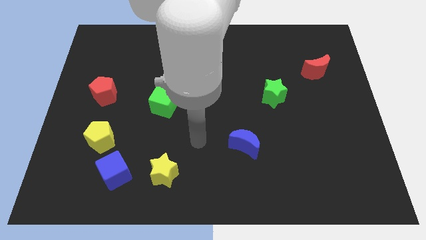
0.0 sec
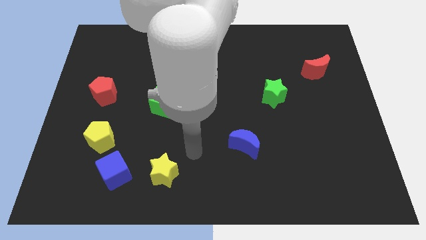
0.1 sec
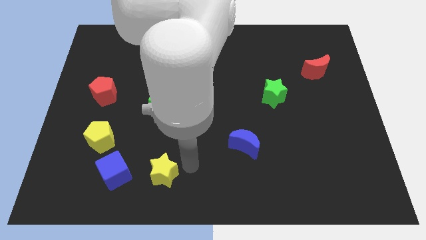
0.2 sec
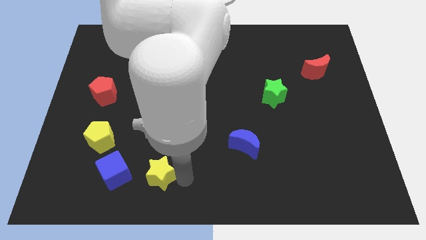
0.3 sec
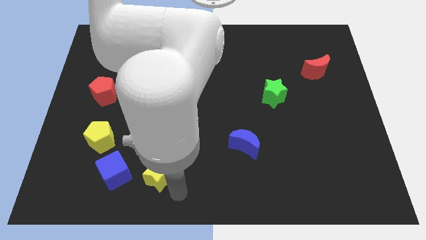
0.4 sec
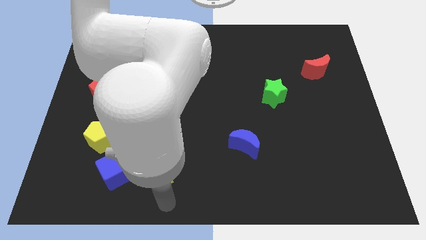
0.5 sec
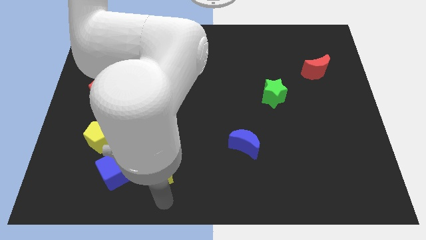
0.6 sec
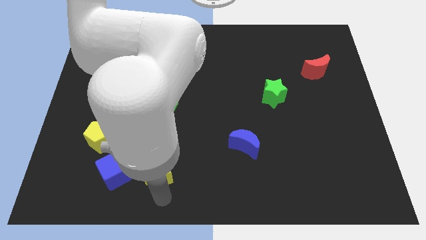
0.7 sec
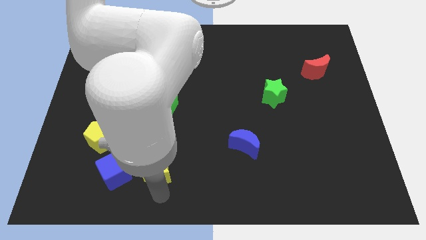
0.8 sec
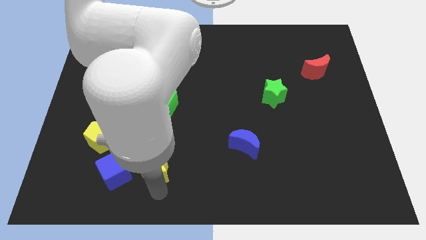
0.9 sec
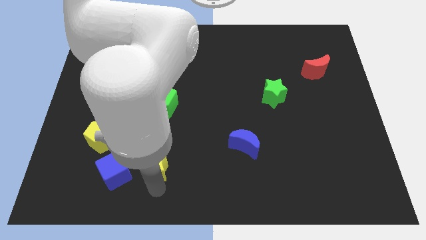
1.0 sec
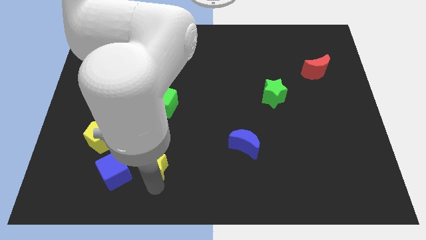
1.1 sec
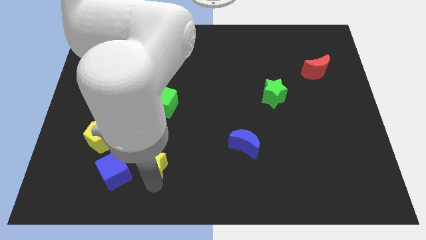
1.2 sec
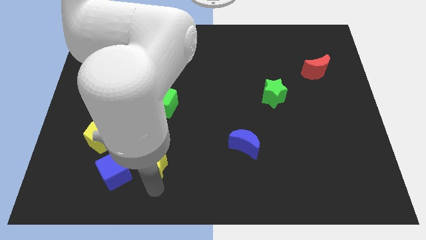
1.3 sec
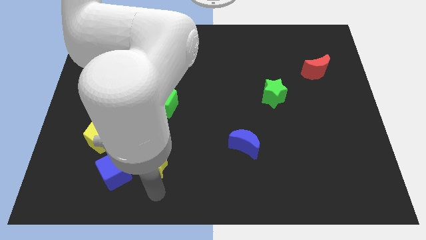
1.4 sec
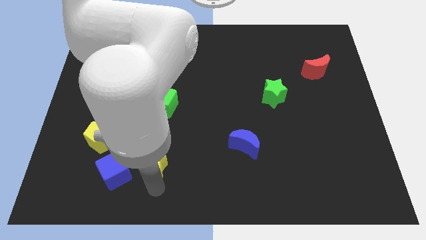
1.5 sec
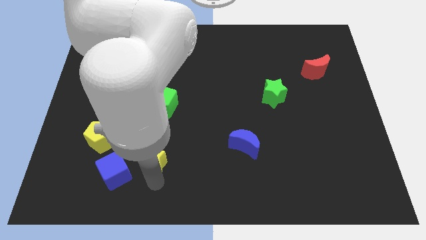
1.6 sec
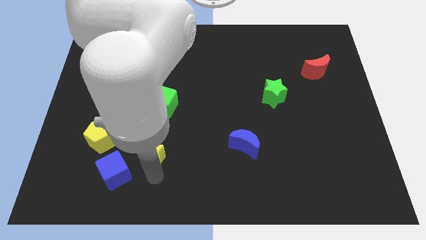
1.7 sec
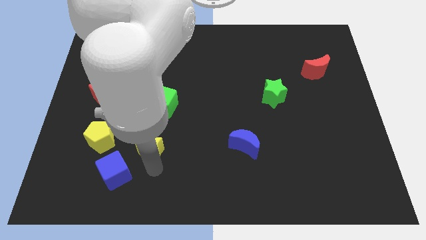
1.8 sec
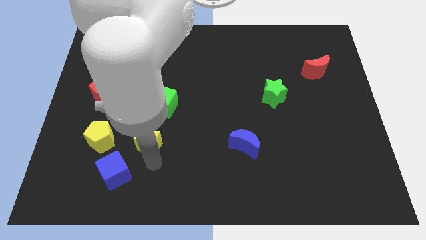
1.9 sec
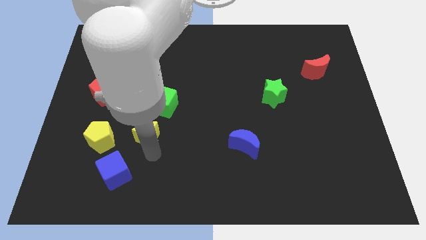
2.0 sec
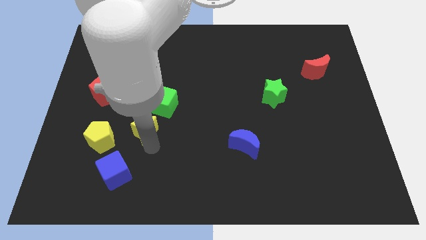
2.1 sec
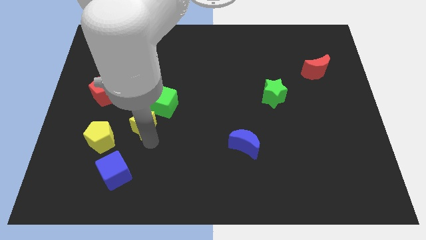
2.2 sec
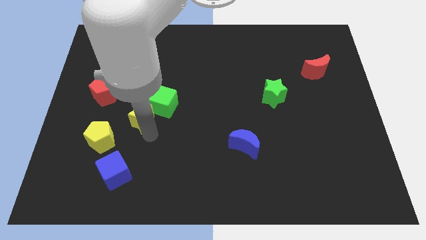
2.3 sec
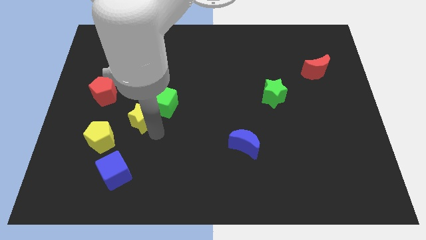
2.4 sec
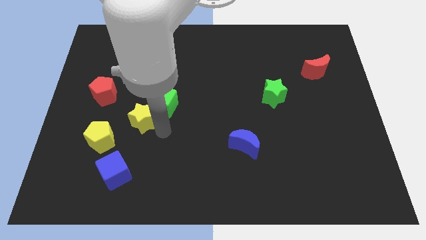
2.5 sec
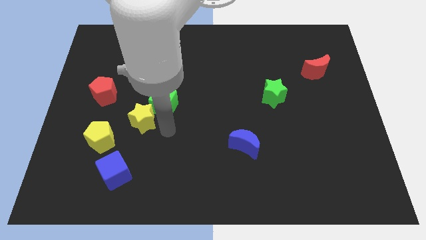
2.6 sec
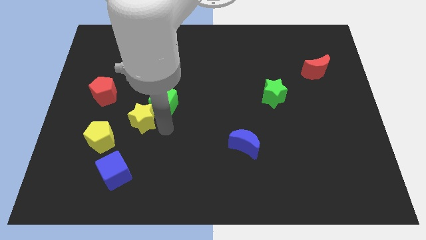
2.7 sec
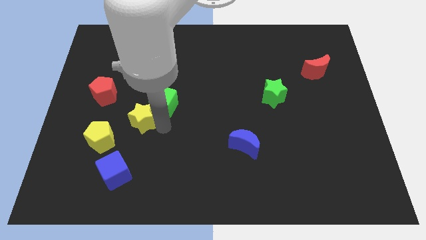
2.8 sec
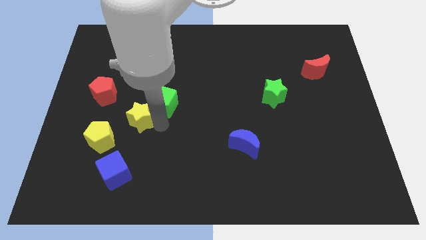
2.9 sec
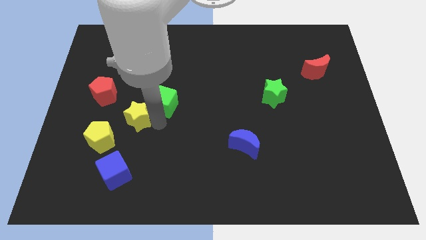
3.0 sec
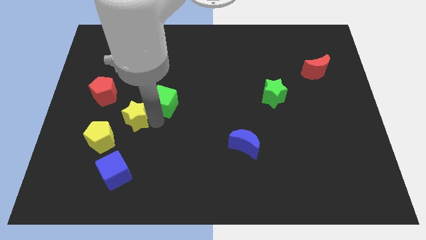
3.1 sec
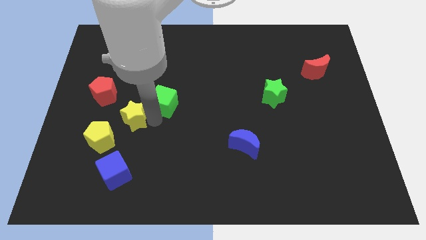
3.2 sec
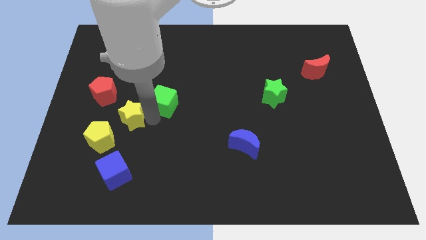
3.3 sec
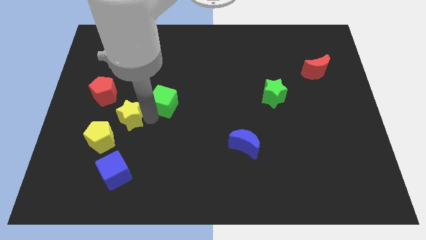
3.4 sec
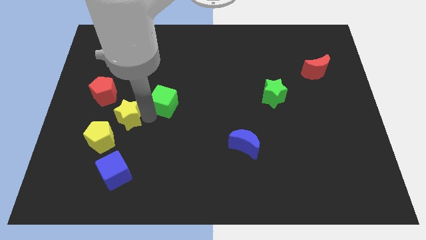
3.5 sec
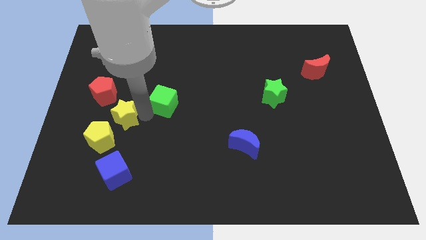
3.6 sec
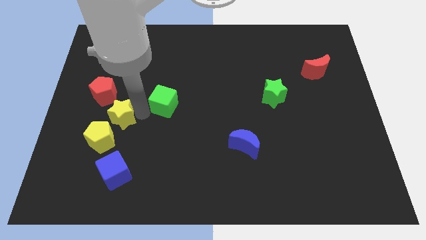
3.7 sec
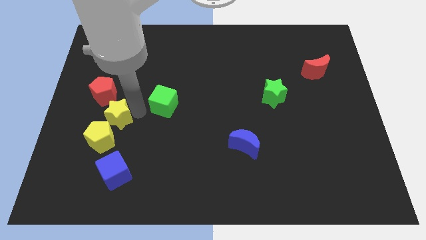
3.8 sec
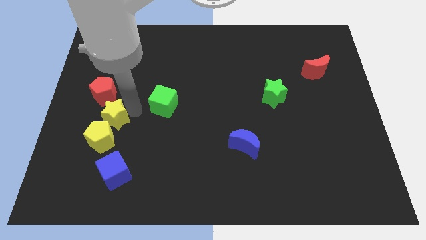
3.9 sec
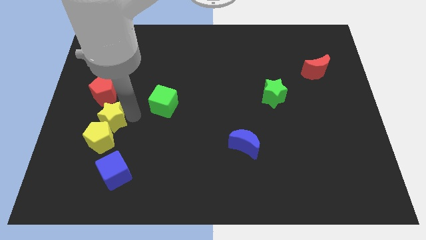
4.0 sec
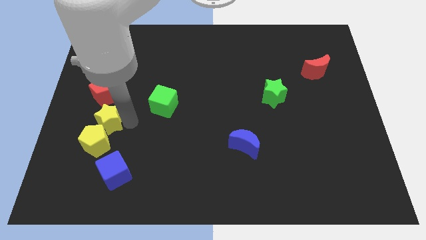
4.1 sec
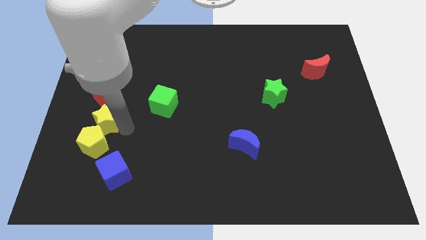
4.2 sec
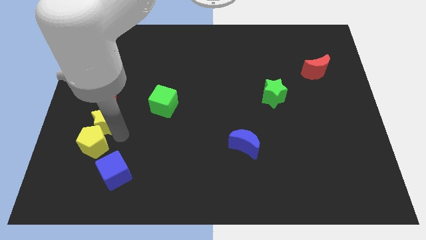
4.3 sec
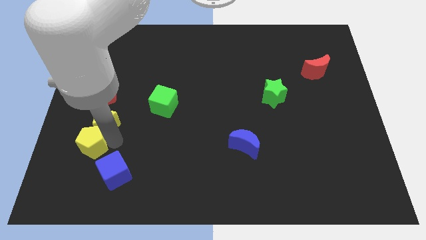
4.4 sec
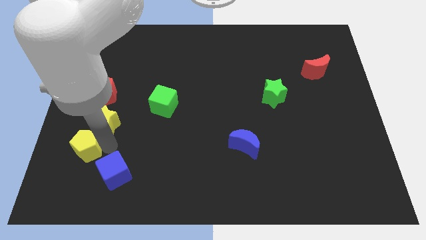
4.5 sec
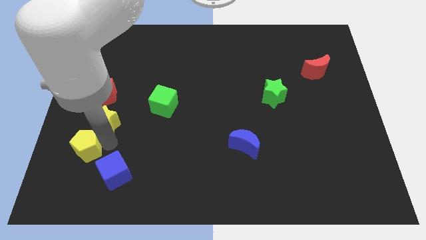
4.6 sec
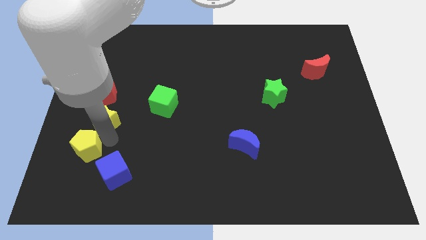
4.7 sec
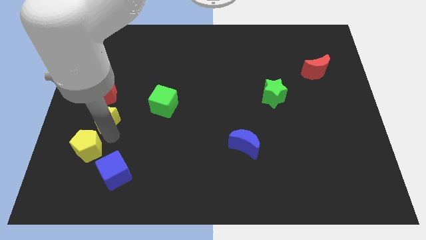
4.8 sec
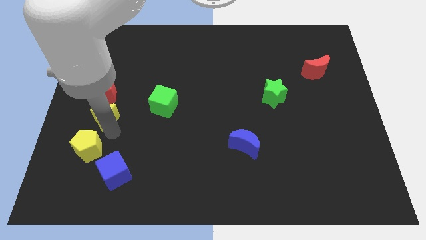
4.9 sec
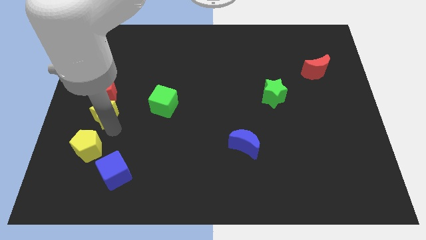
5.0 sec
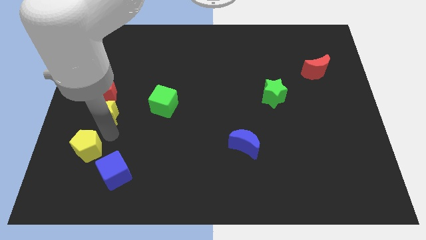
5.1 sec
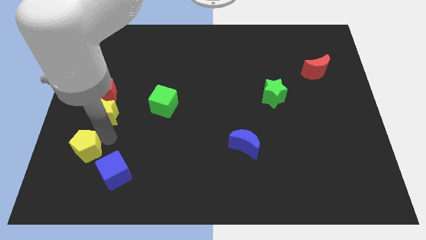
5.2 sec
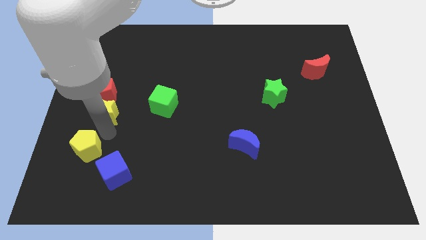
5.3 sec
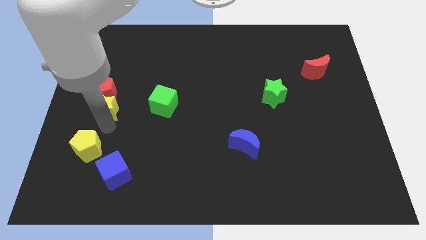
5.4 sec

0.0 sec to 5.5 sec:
move the yellow star towards the red pentagon

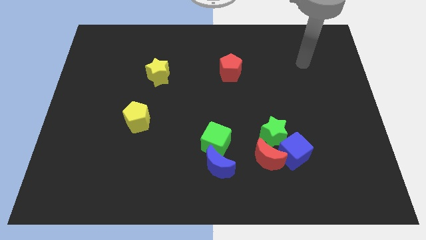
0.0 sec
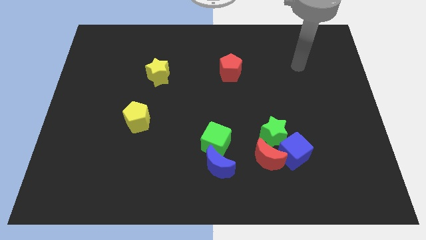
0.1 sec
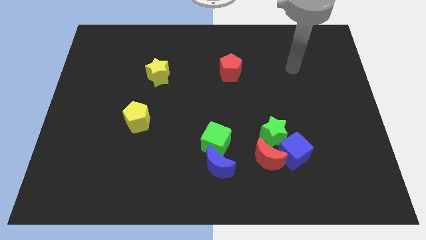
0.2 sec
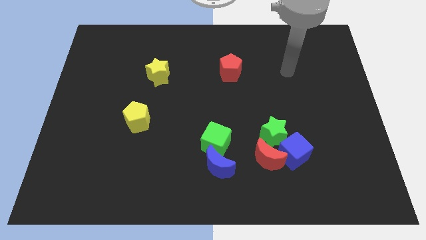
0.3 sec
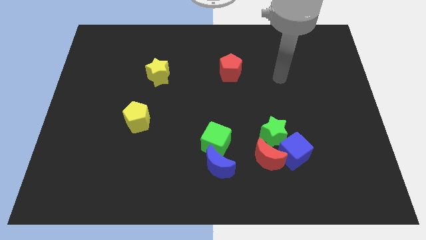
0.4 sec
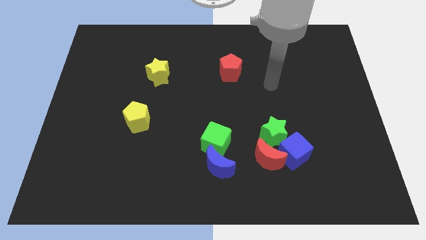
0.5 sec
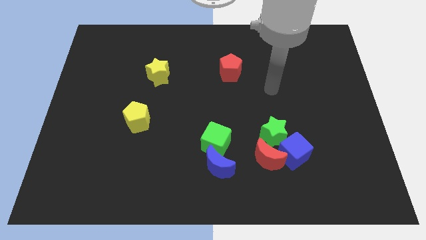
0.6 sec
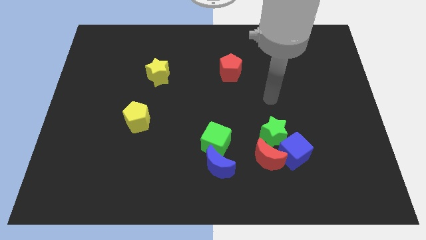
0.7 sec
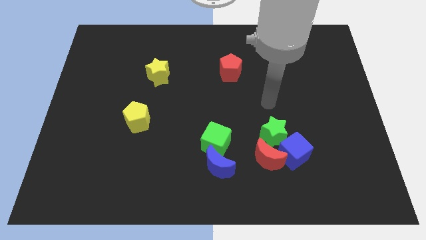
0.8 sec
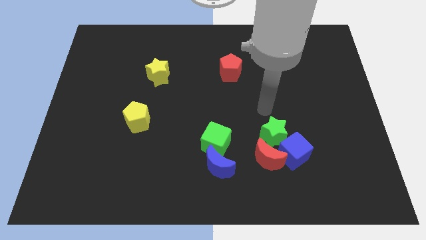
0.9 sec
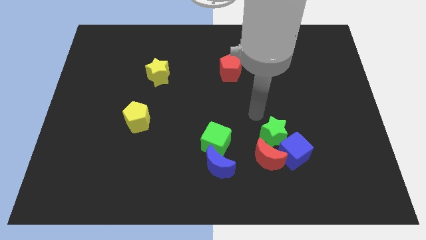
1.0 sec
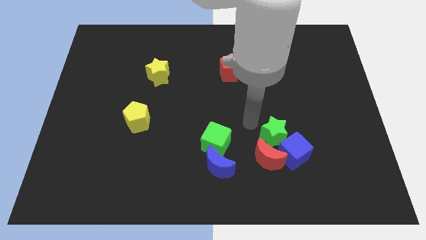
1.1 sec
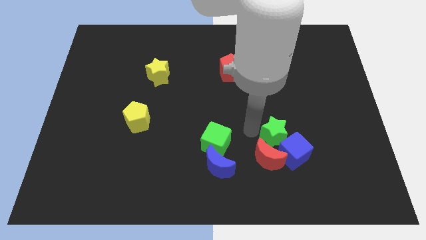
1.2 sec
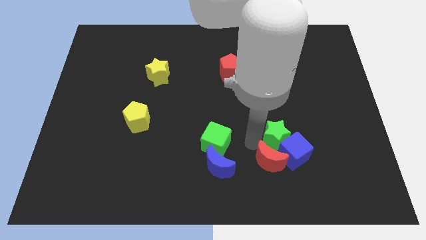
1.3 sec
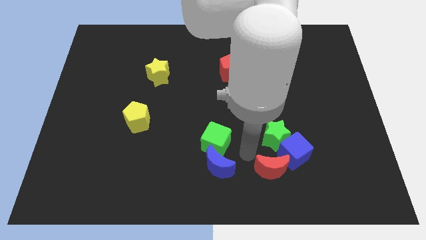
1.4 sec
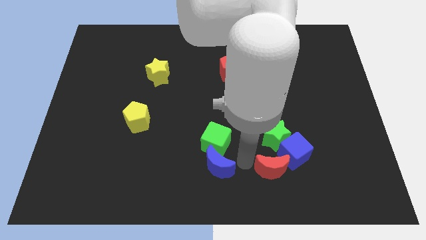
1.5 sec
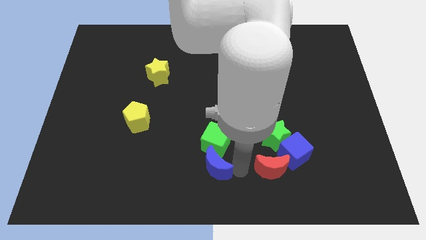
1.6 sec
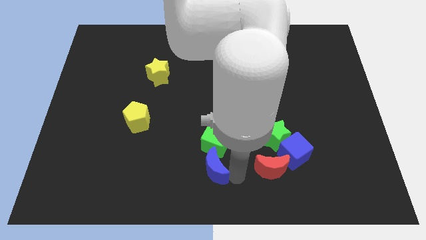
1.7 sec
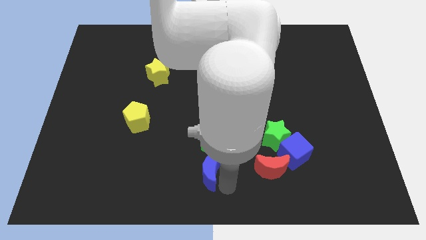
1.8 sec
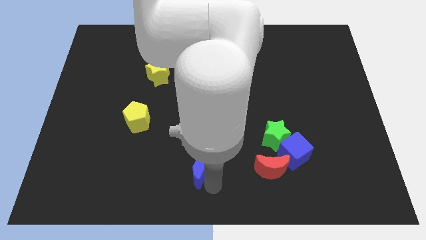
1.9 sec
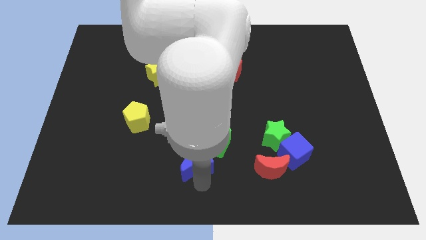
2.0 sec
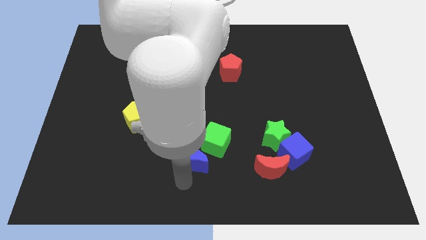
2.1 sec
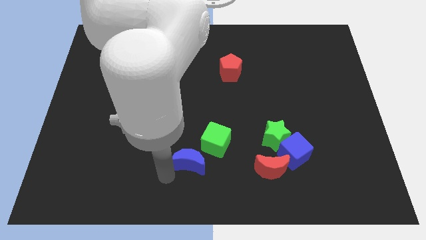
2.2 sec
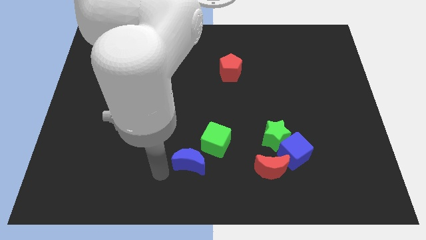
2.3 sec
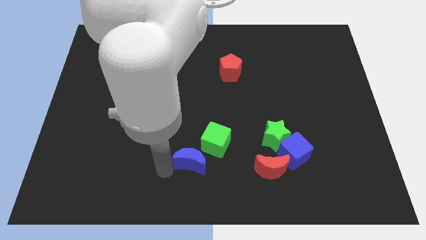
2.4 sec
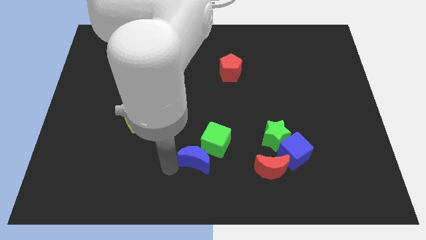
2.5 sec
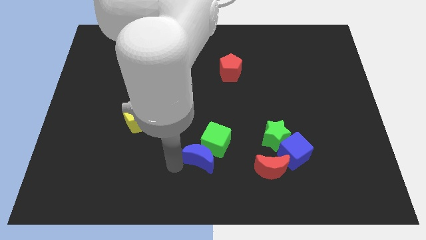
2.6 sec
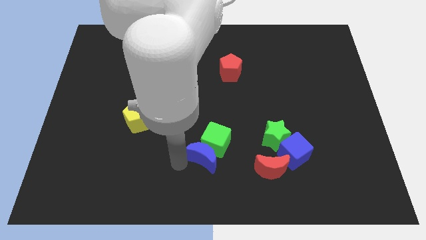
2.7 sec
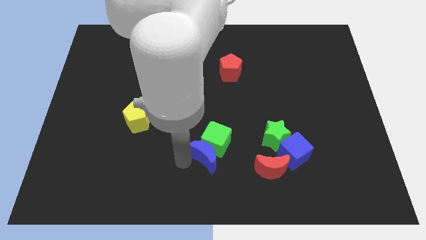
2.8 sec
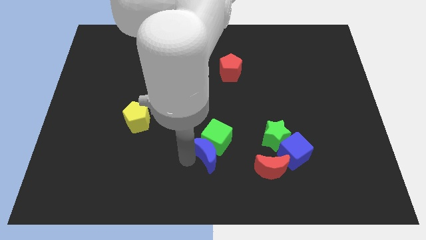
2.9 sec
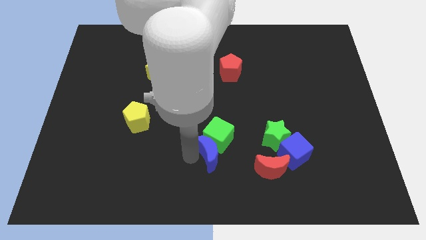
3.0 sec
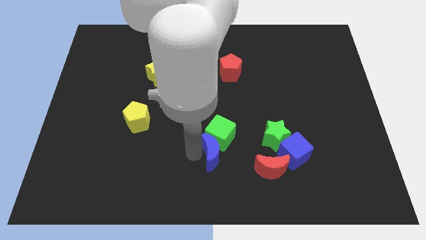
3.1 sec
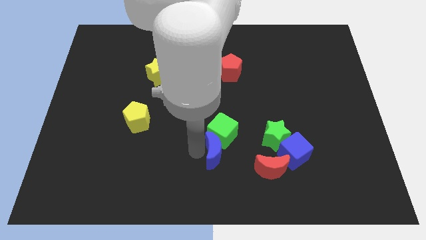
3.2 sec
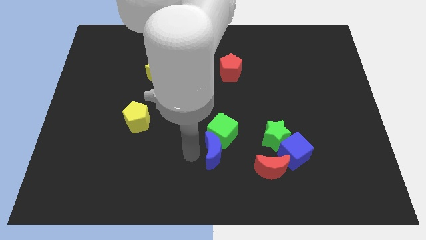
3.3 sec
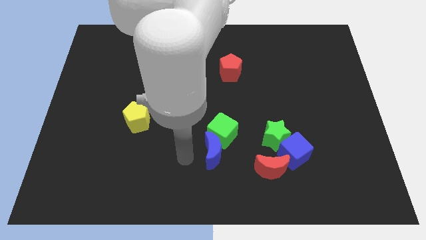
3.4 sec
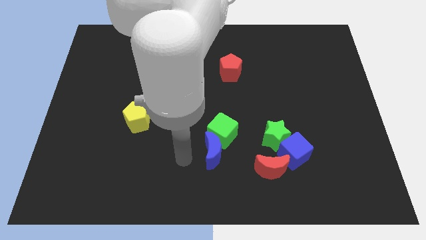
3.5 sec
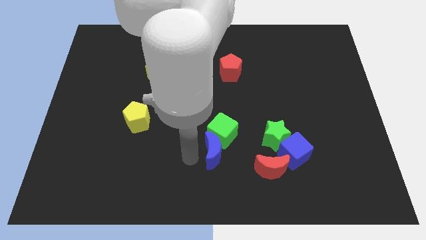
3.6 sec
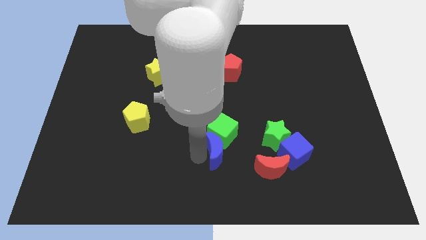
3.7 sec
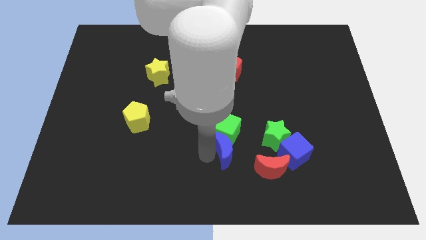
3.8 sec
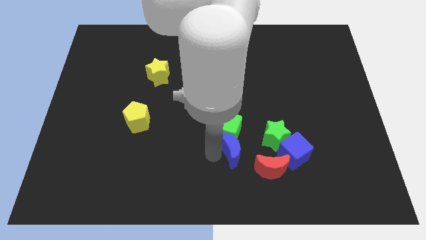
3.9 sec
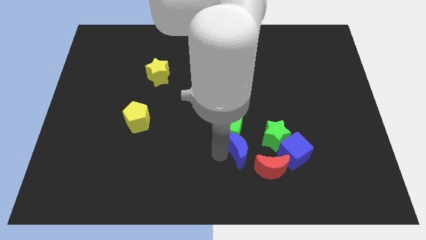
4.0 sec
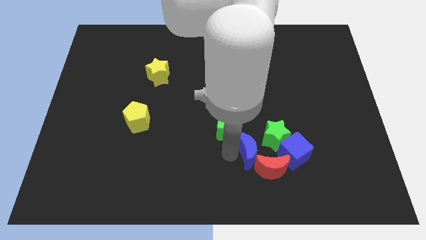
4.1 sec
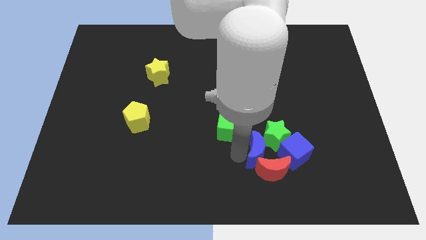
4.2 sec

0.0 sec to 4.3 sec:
move the blue moon to the green star
